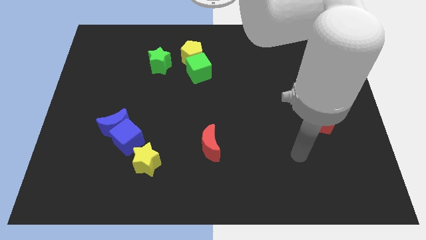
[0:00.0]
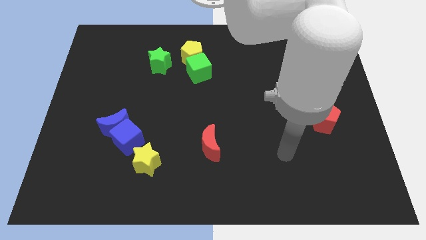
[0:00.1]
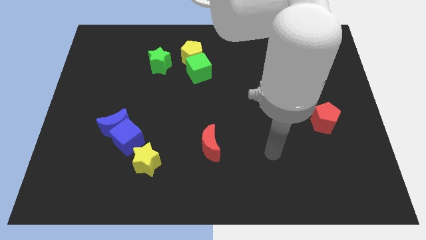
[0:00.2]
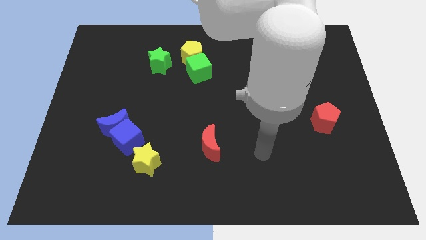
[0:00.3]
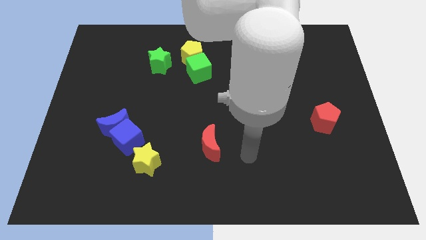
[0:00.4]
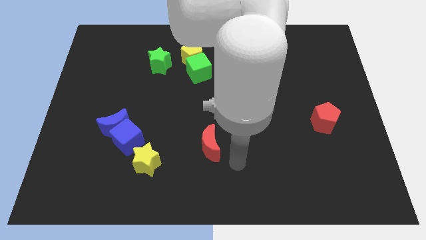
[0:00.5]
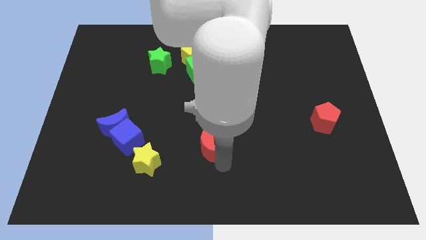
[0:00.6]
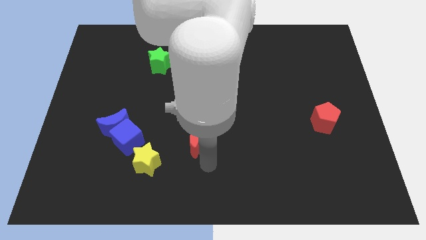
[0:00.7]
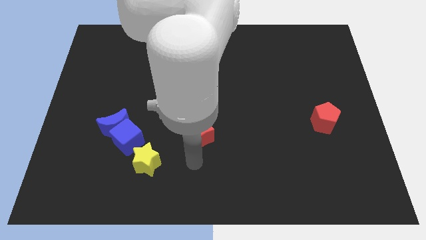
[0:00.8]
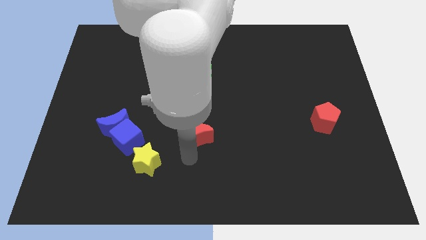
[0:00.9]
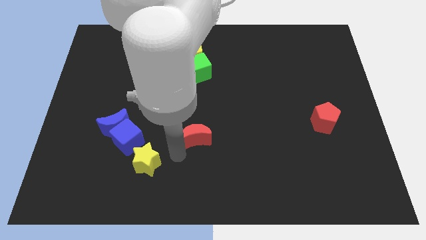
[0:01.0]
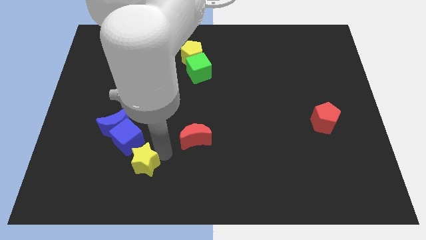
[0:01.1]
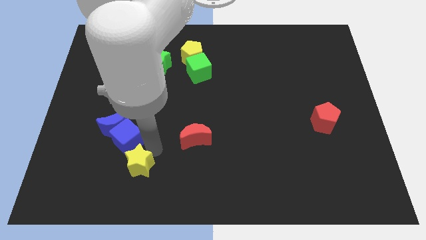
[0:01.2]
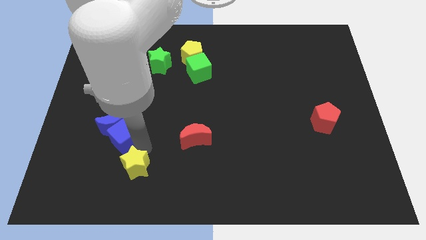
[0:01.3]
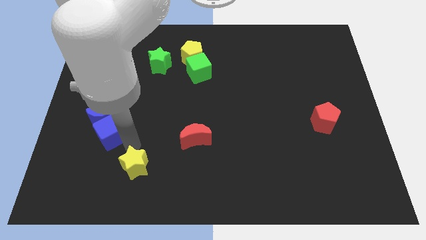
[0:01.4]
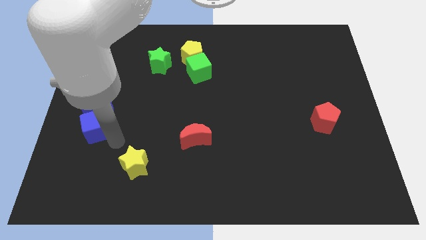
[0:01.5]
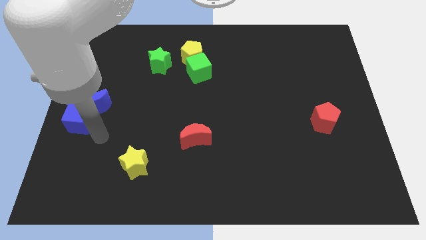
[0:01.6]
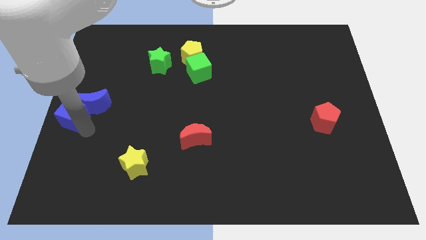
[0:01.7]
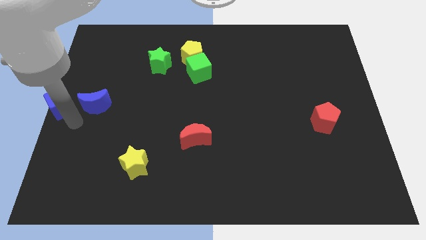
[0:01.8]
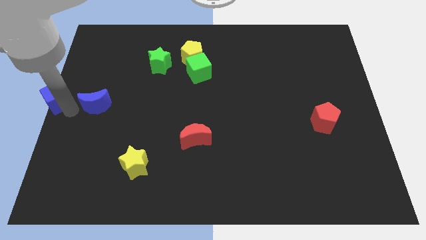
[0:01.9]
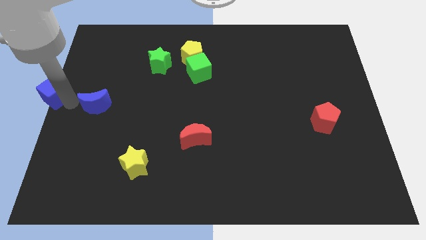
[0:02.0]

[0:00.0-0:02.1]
separate the blue moon from the blue cube

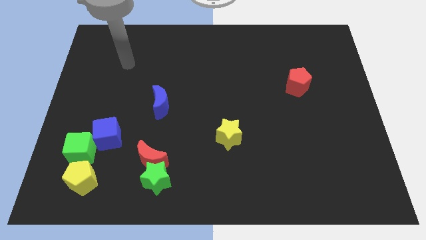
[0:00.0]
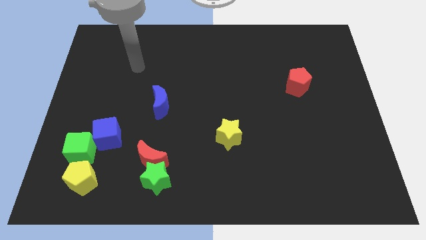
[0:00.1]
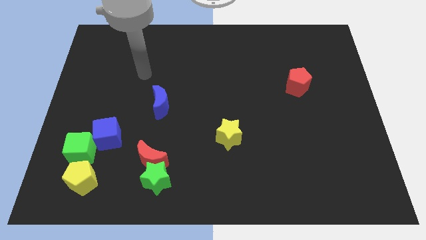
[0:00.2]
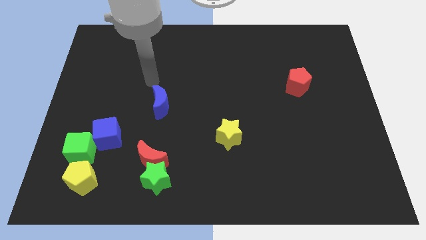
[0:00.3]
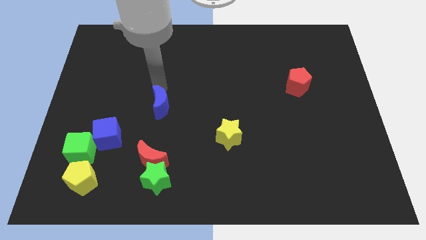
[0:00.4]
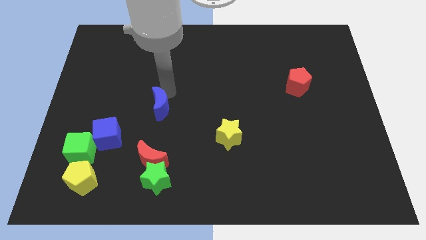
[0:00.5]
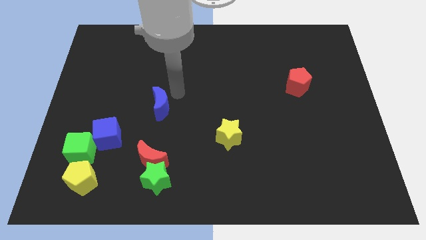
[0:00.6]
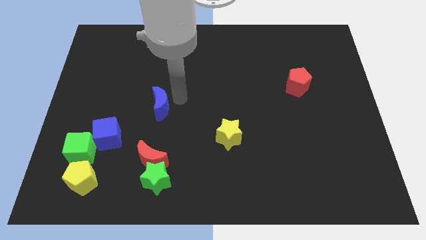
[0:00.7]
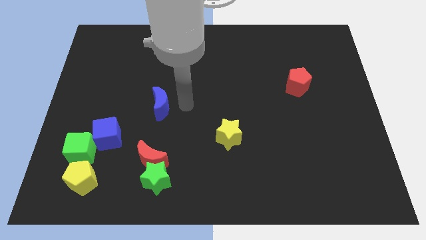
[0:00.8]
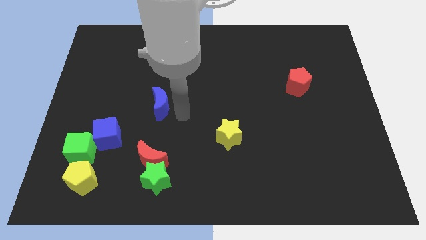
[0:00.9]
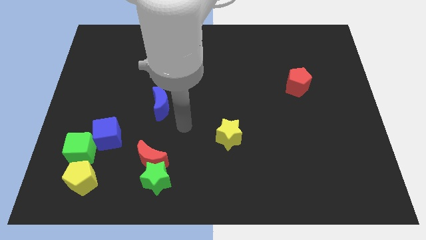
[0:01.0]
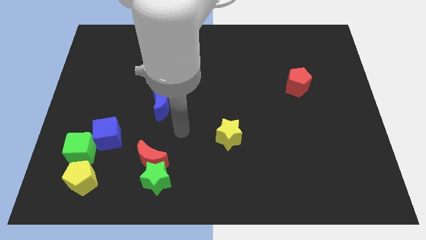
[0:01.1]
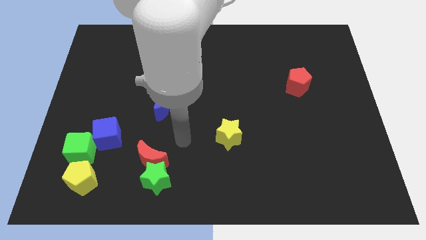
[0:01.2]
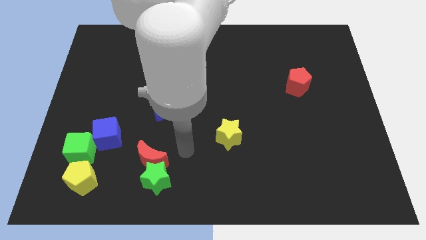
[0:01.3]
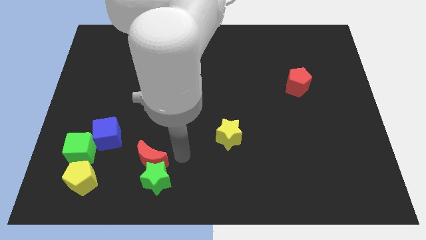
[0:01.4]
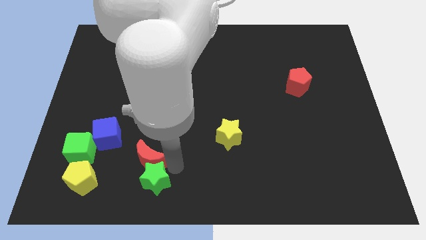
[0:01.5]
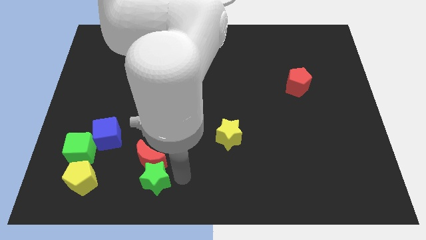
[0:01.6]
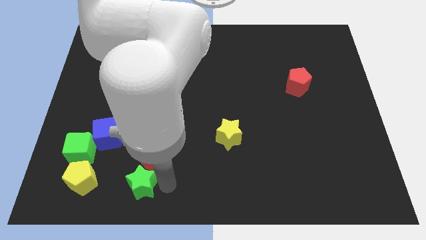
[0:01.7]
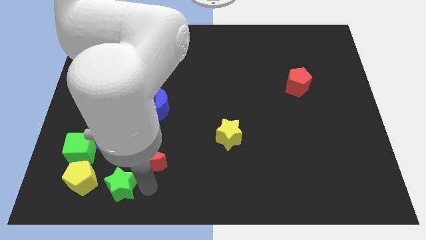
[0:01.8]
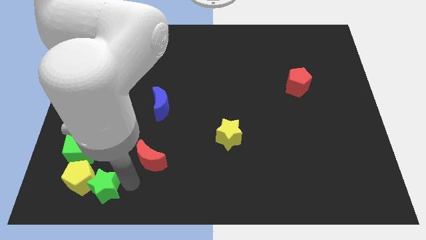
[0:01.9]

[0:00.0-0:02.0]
move the red moon away from the green star

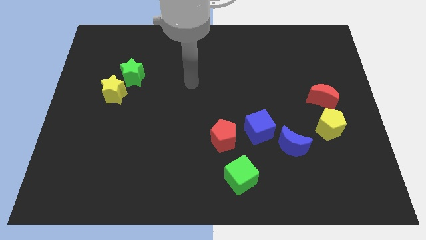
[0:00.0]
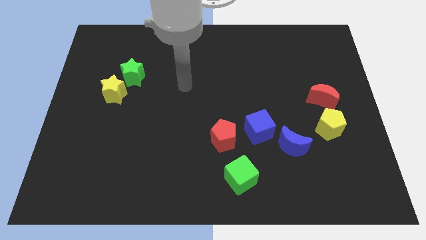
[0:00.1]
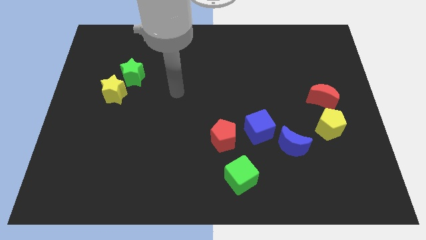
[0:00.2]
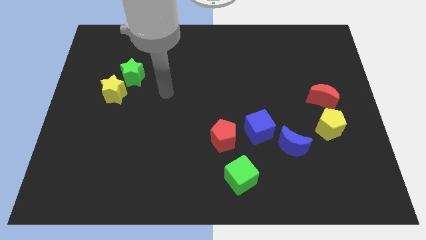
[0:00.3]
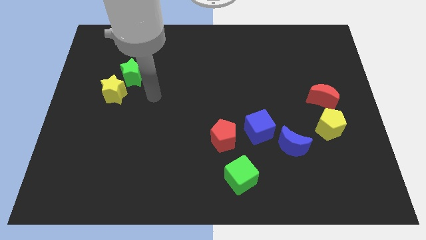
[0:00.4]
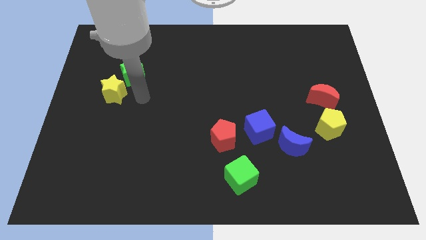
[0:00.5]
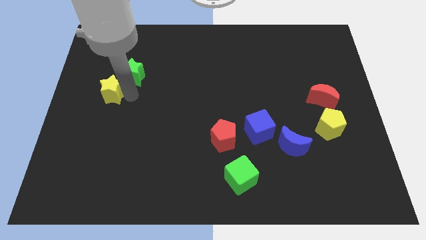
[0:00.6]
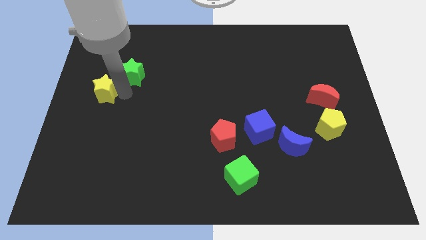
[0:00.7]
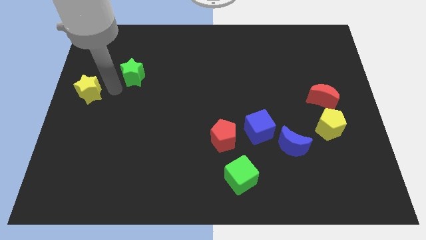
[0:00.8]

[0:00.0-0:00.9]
pull the green star apart from the yellow star

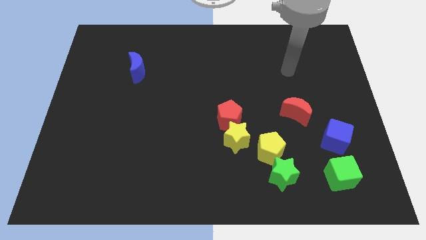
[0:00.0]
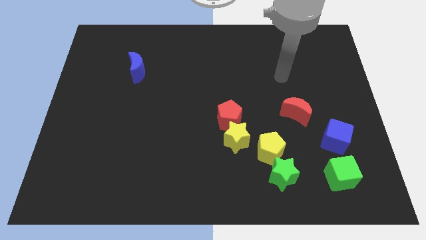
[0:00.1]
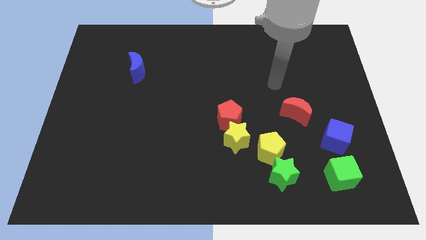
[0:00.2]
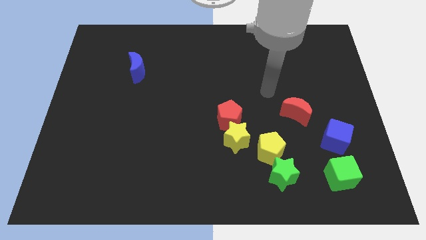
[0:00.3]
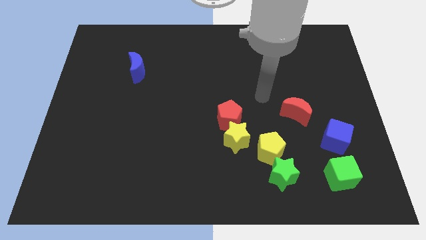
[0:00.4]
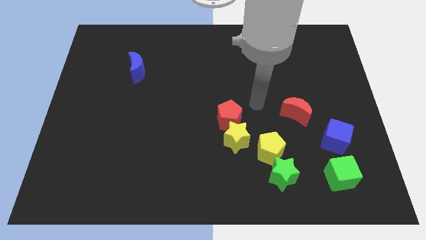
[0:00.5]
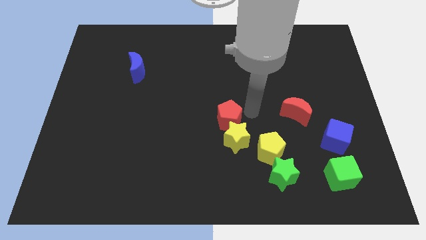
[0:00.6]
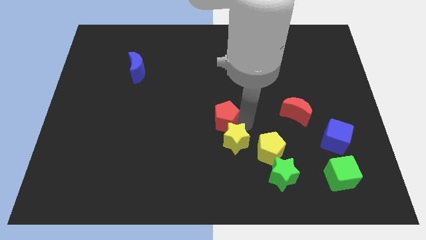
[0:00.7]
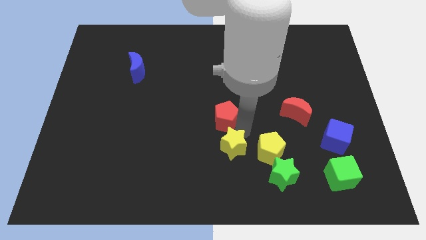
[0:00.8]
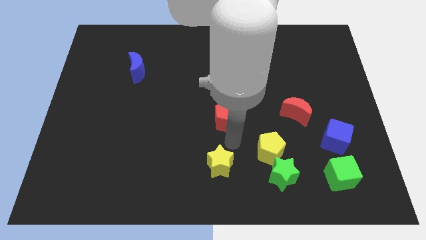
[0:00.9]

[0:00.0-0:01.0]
pull the red pentagon apart from the yellow star

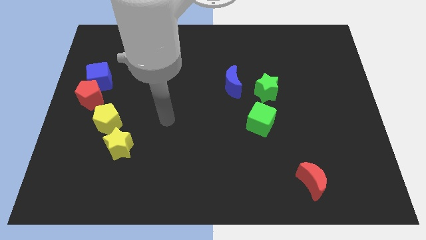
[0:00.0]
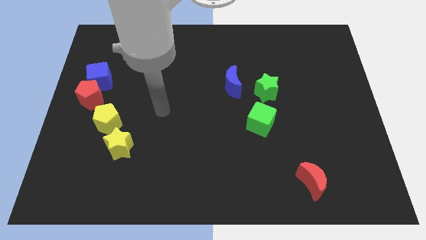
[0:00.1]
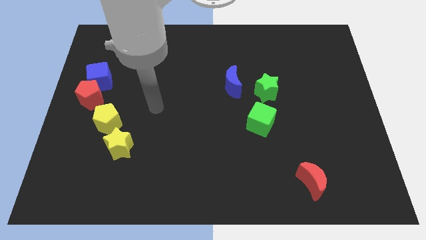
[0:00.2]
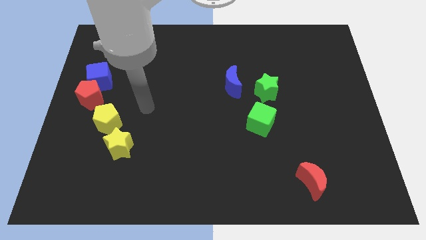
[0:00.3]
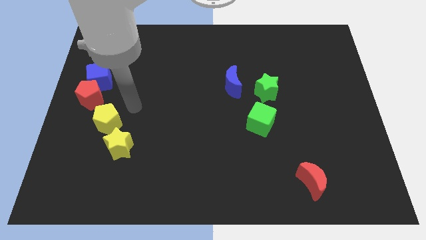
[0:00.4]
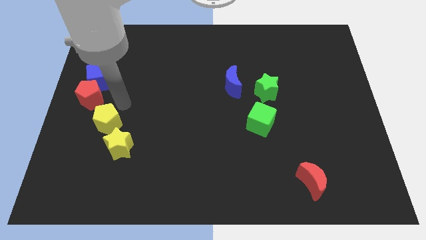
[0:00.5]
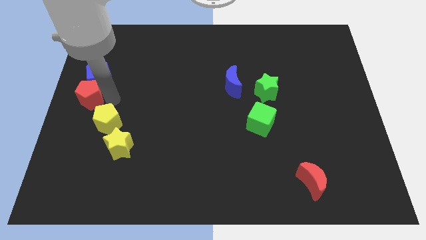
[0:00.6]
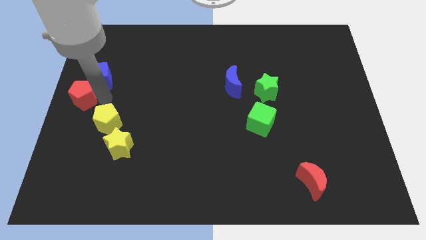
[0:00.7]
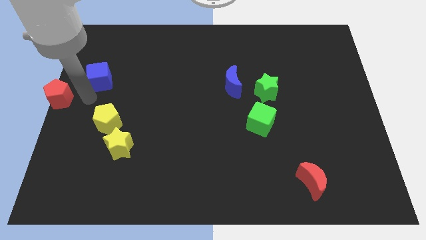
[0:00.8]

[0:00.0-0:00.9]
separate the blue cube from the red pentagon

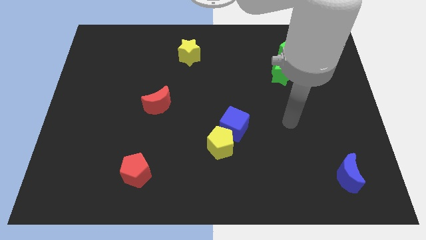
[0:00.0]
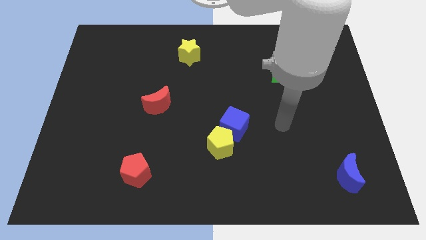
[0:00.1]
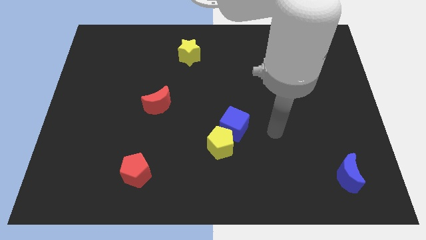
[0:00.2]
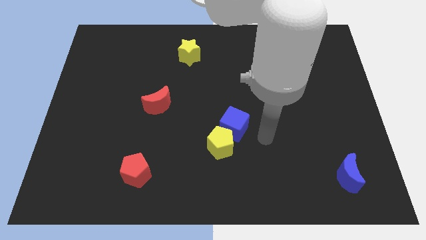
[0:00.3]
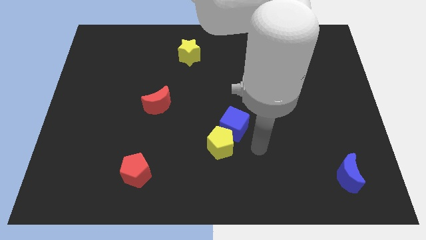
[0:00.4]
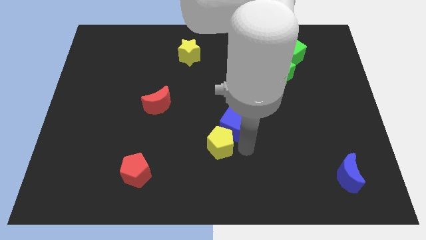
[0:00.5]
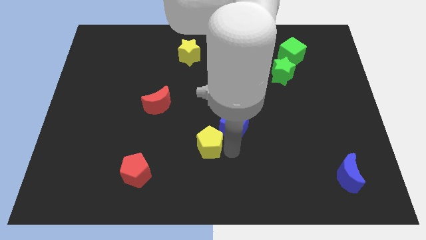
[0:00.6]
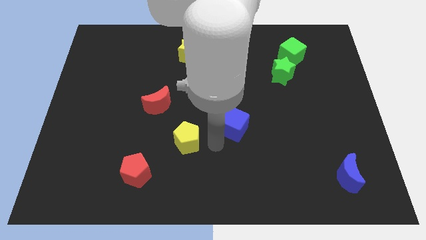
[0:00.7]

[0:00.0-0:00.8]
separate the blue cube from the yellow pentagon

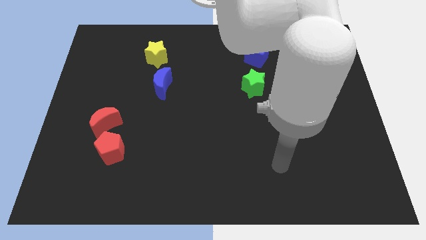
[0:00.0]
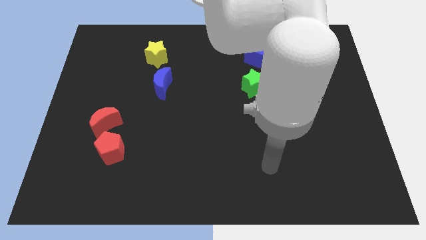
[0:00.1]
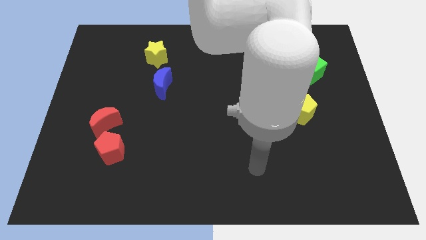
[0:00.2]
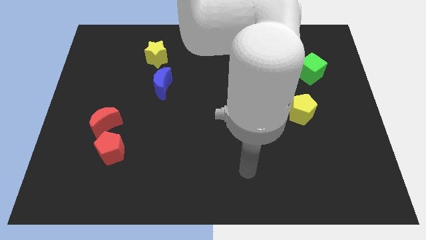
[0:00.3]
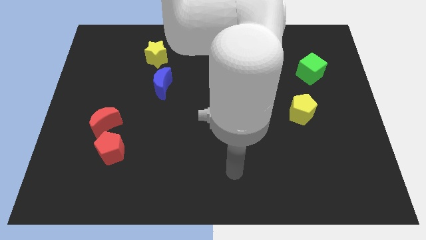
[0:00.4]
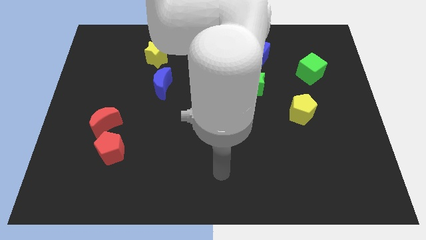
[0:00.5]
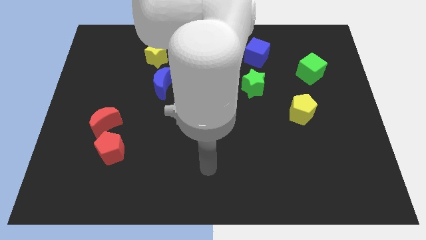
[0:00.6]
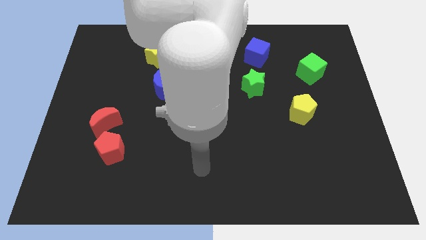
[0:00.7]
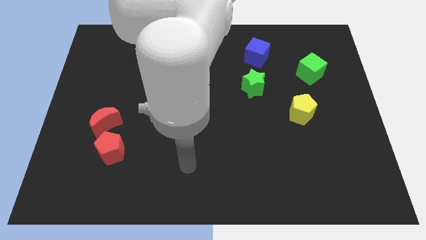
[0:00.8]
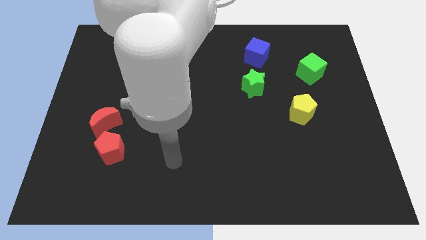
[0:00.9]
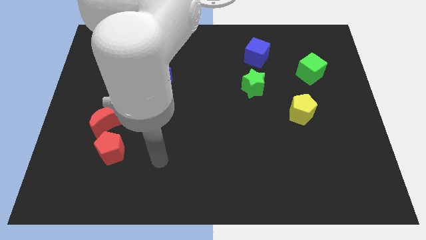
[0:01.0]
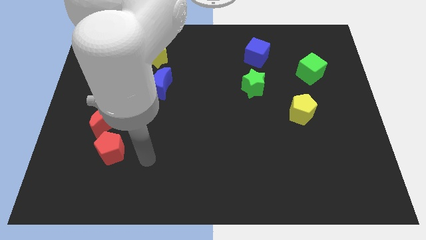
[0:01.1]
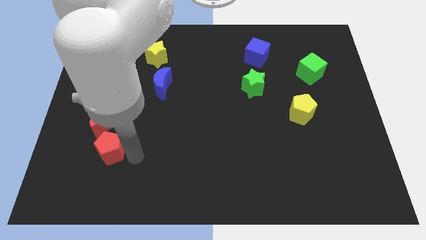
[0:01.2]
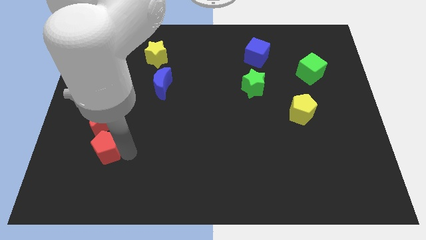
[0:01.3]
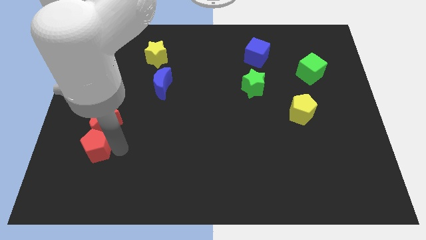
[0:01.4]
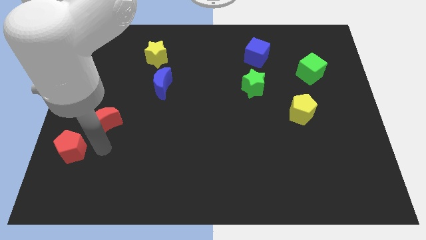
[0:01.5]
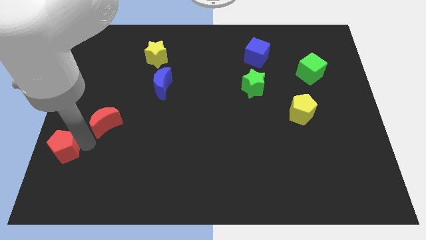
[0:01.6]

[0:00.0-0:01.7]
move the red moon away from the red pentagon

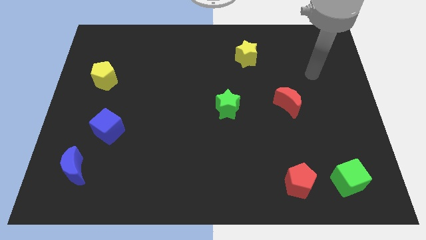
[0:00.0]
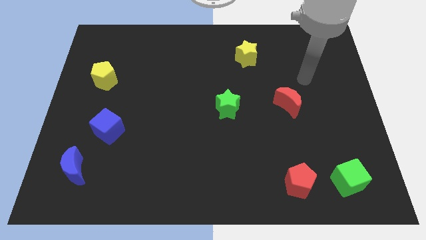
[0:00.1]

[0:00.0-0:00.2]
separate the red pentagon from the green cube
